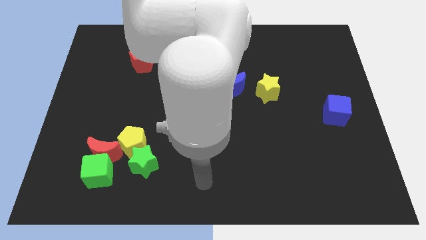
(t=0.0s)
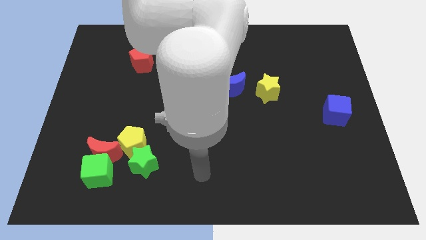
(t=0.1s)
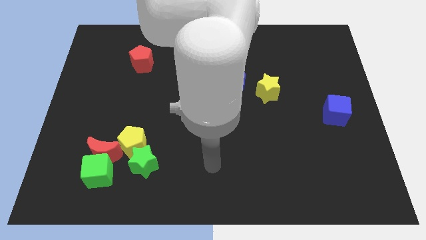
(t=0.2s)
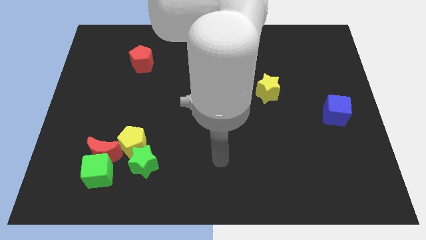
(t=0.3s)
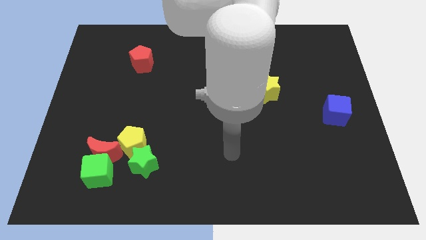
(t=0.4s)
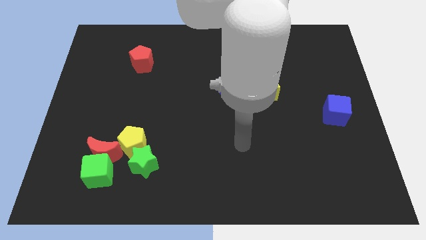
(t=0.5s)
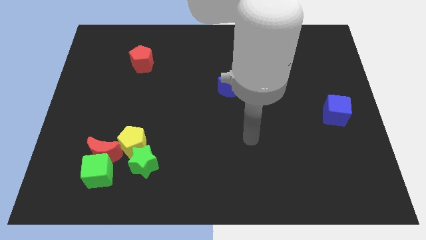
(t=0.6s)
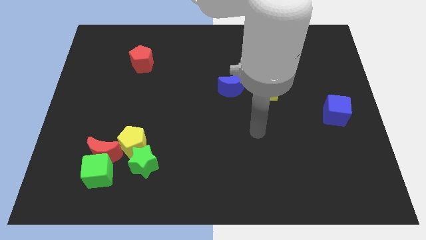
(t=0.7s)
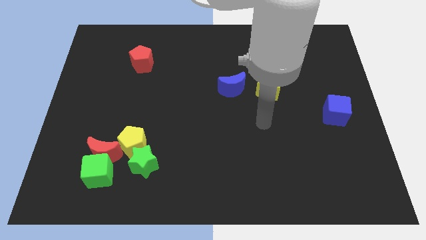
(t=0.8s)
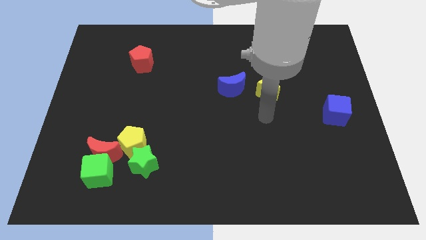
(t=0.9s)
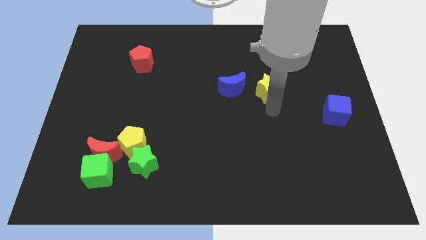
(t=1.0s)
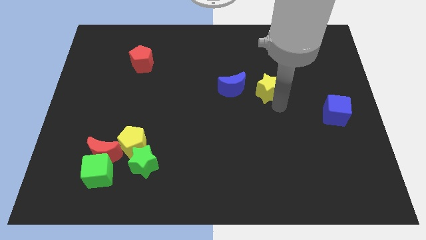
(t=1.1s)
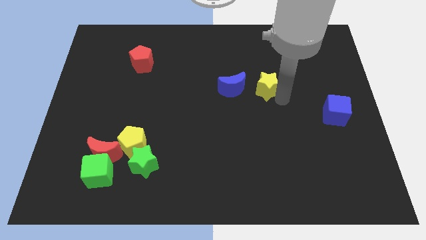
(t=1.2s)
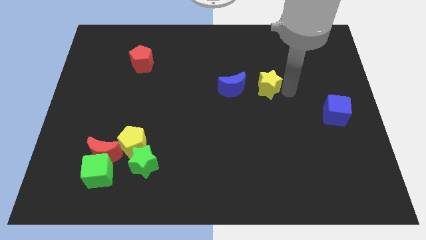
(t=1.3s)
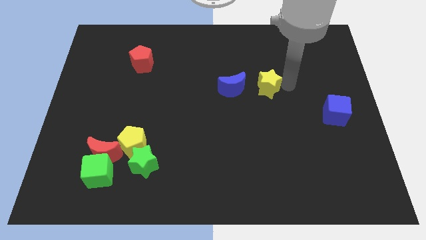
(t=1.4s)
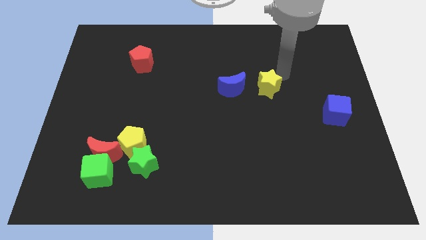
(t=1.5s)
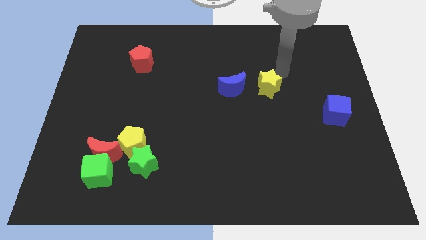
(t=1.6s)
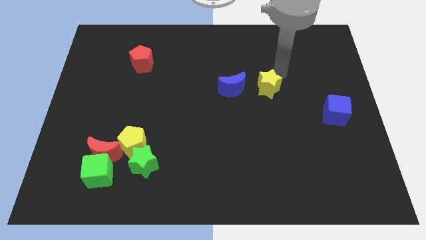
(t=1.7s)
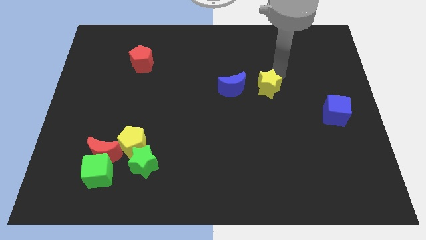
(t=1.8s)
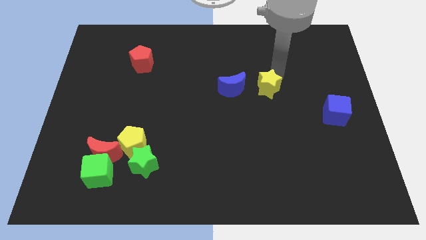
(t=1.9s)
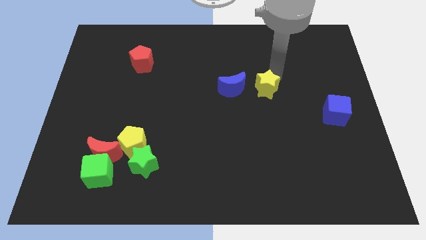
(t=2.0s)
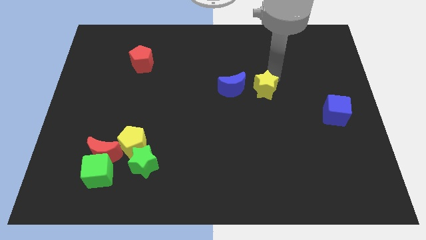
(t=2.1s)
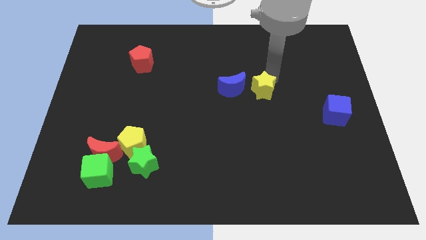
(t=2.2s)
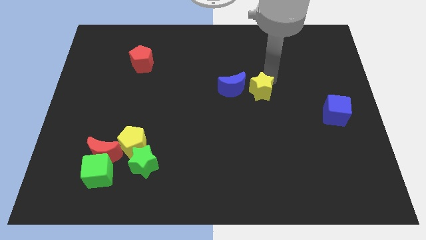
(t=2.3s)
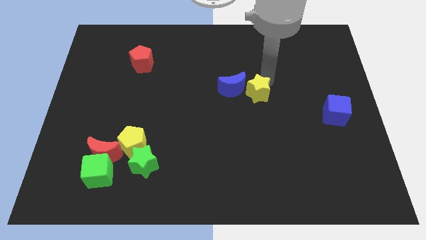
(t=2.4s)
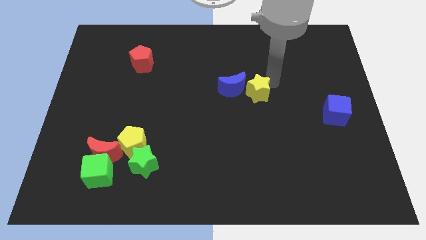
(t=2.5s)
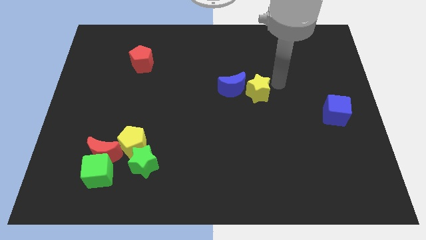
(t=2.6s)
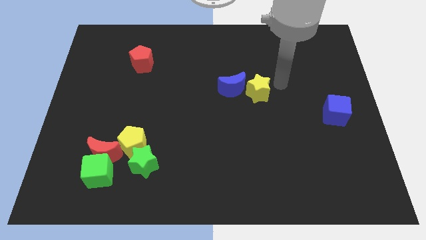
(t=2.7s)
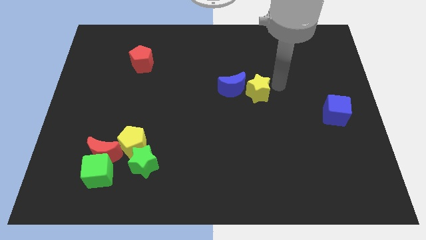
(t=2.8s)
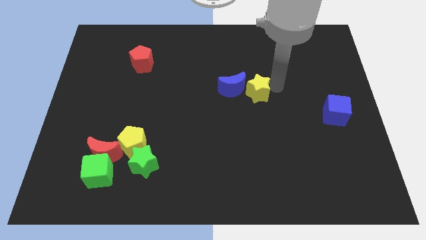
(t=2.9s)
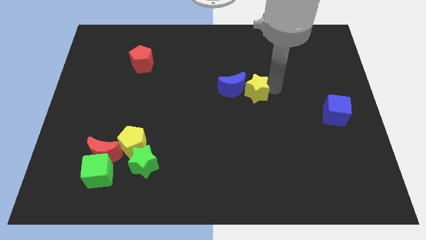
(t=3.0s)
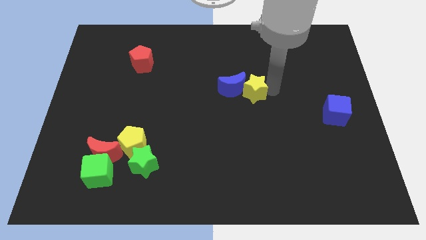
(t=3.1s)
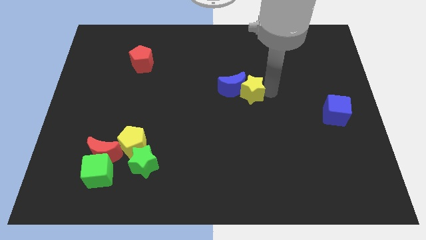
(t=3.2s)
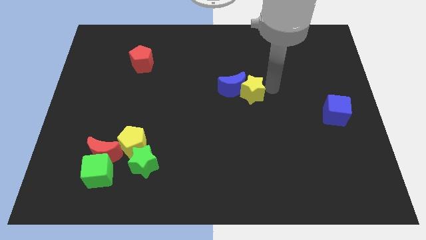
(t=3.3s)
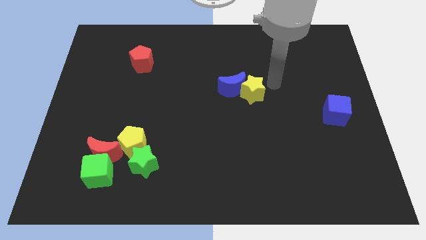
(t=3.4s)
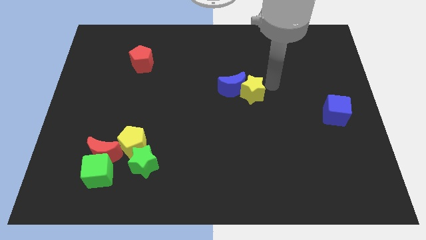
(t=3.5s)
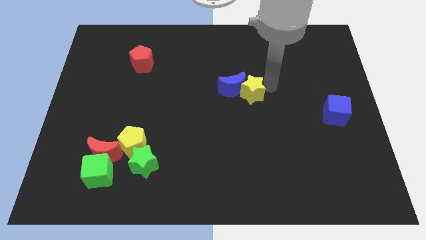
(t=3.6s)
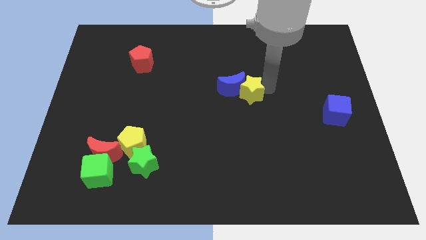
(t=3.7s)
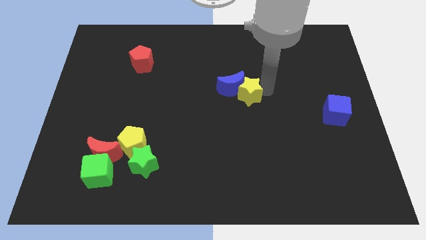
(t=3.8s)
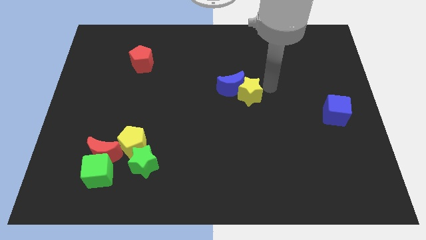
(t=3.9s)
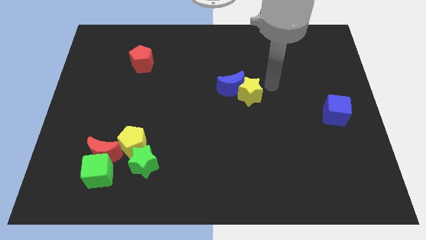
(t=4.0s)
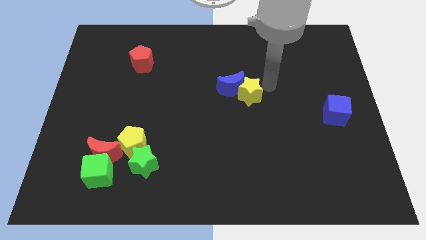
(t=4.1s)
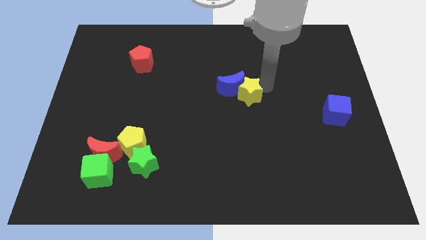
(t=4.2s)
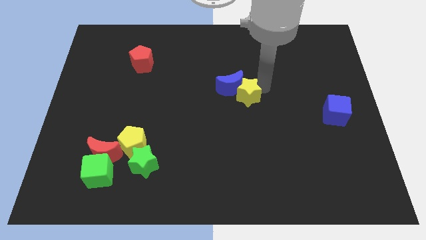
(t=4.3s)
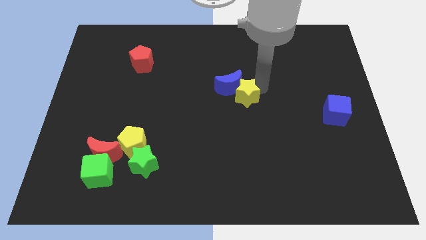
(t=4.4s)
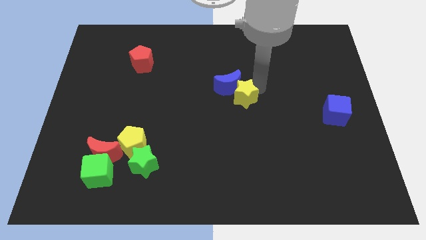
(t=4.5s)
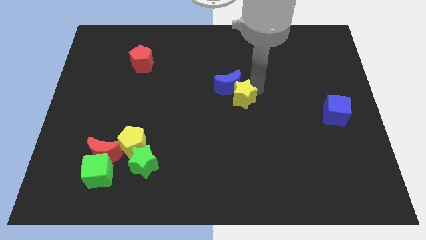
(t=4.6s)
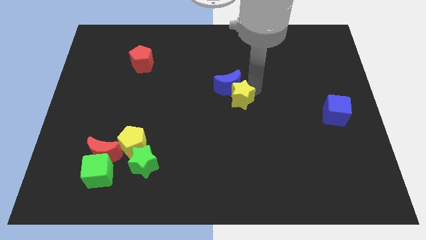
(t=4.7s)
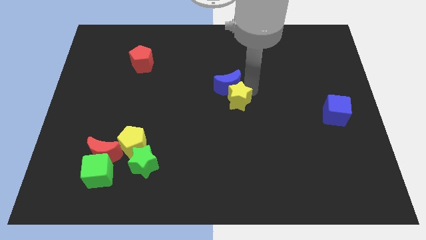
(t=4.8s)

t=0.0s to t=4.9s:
slide the yellow star a little bit to the left

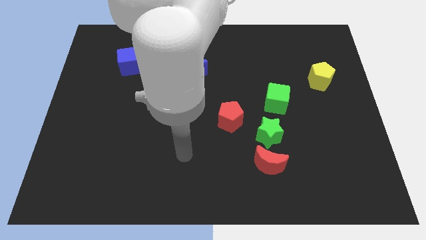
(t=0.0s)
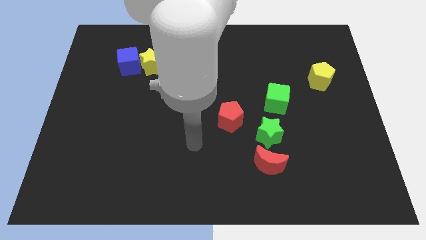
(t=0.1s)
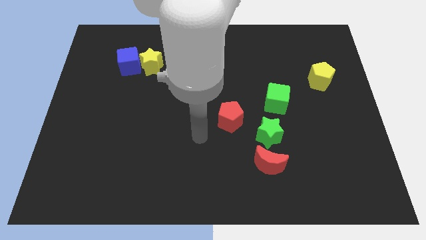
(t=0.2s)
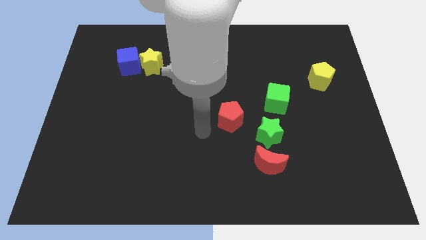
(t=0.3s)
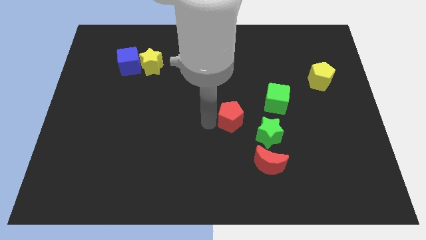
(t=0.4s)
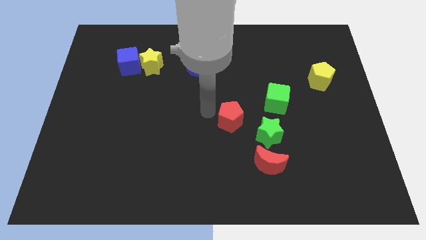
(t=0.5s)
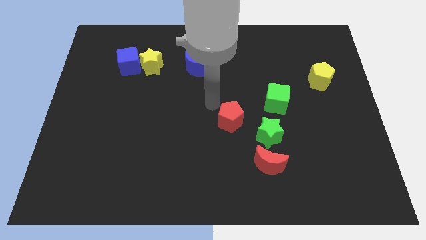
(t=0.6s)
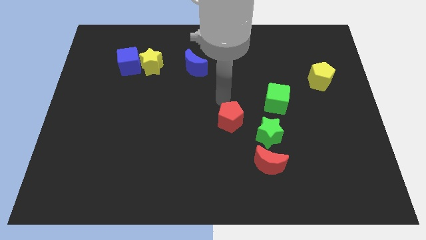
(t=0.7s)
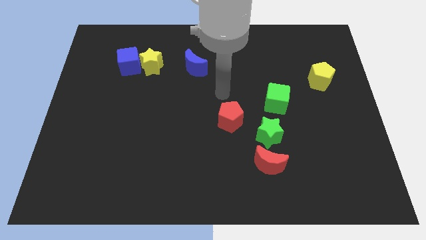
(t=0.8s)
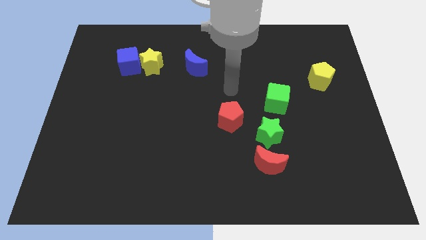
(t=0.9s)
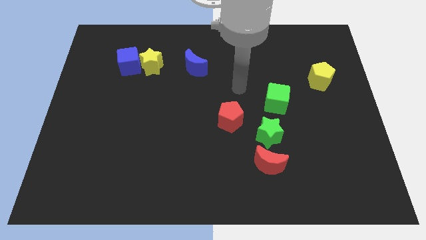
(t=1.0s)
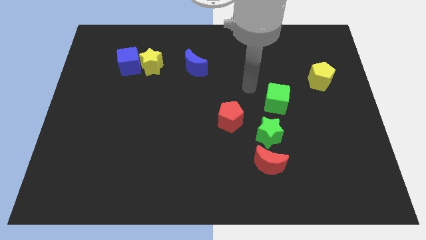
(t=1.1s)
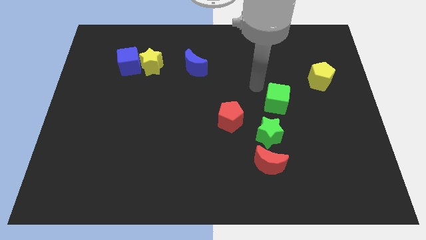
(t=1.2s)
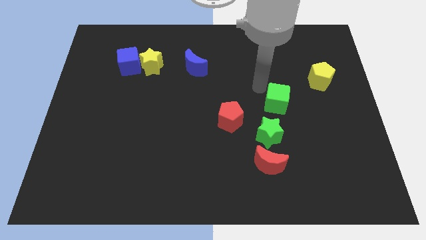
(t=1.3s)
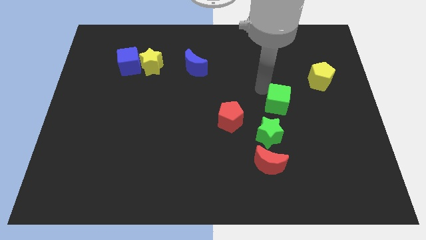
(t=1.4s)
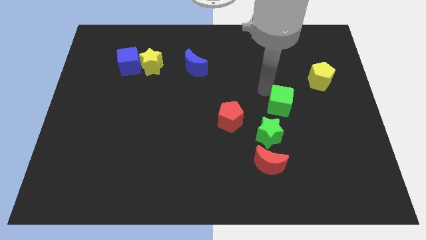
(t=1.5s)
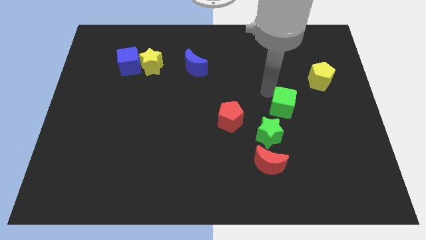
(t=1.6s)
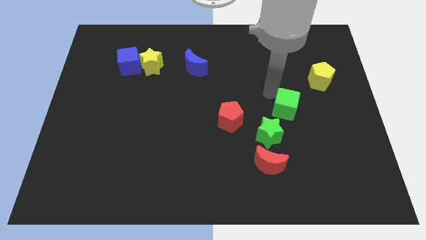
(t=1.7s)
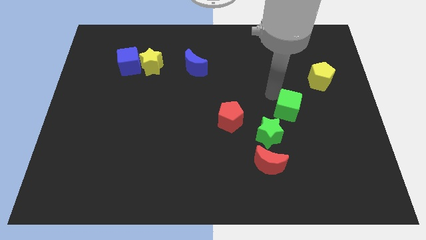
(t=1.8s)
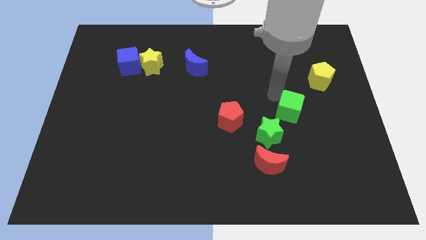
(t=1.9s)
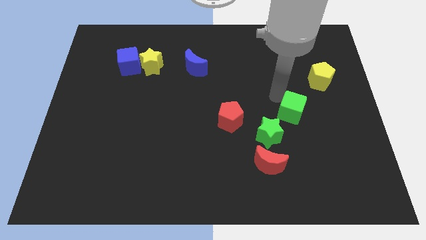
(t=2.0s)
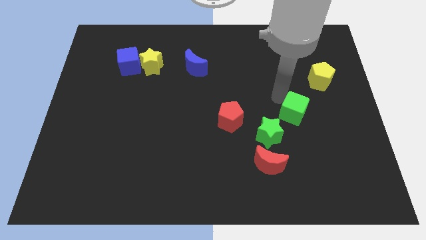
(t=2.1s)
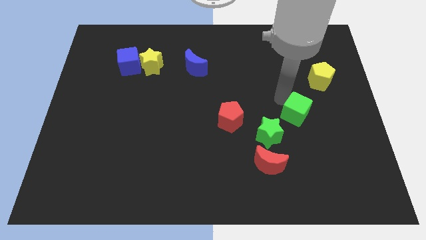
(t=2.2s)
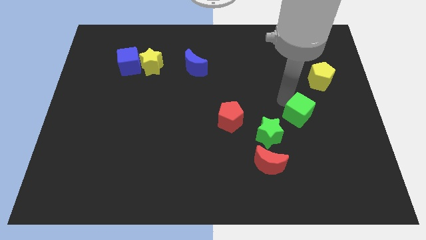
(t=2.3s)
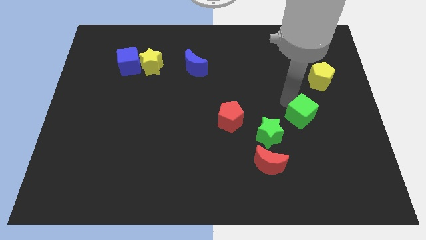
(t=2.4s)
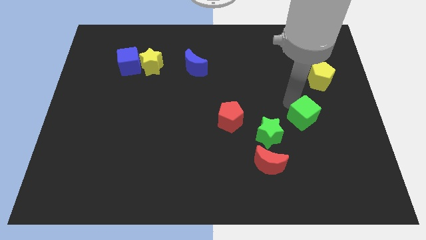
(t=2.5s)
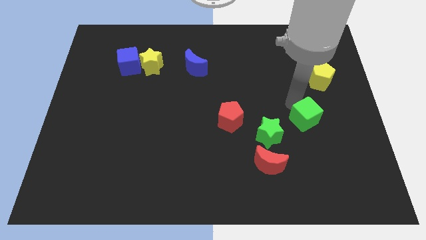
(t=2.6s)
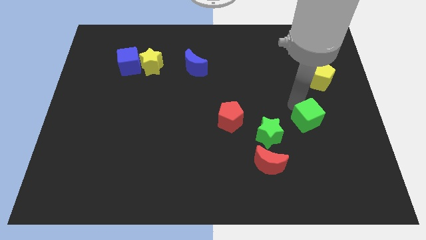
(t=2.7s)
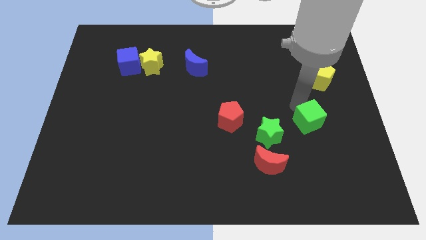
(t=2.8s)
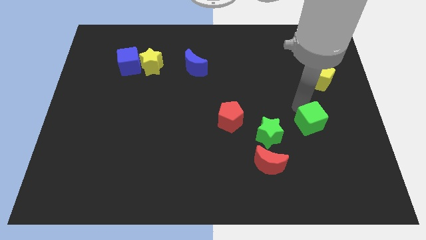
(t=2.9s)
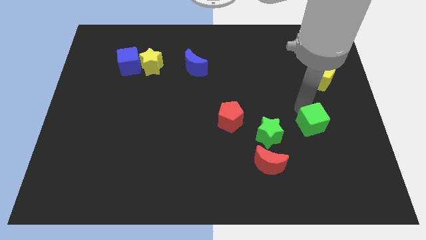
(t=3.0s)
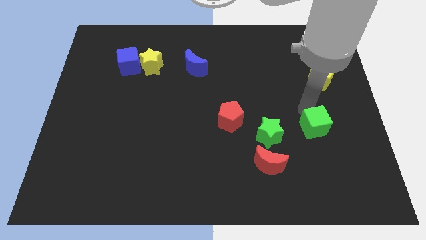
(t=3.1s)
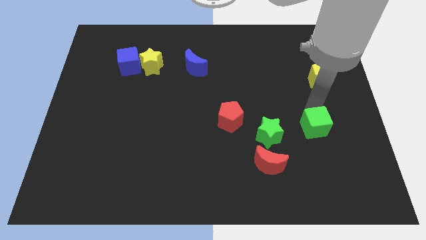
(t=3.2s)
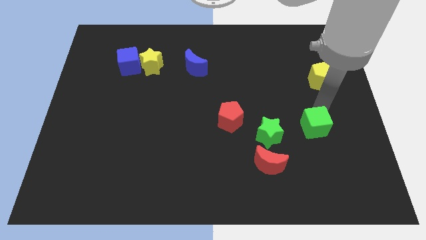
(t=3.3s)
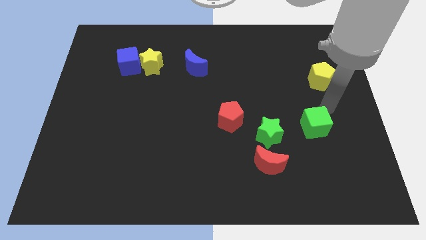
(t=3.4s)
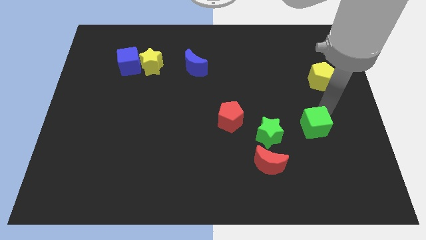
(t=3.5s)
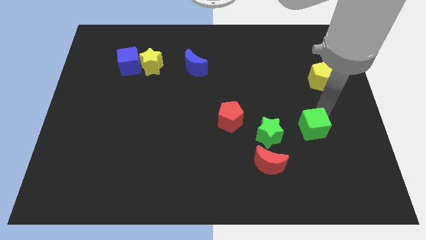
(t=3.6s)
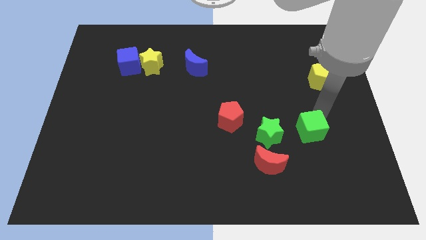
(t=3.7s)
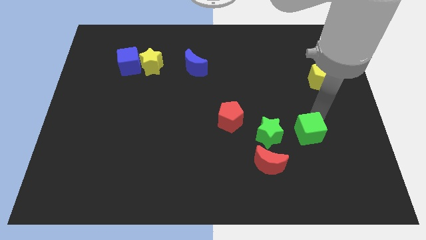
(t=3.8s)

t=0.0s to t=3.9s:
slightly move the green cube downwards
